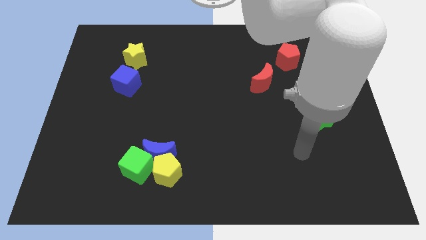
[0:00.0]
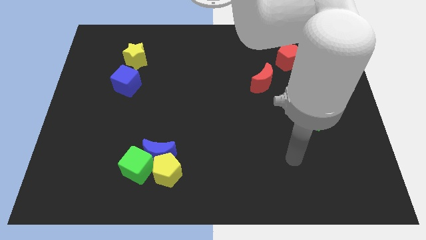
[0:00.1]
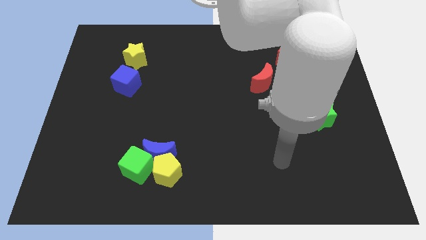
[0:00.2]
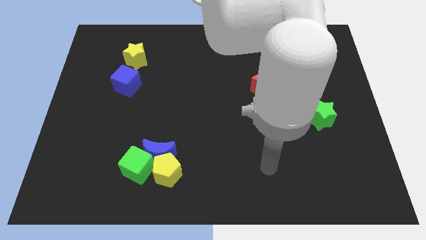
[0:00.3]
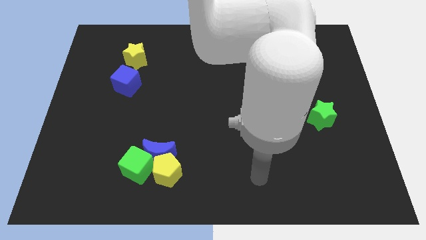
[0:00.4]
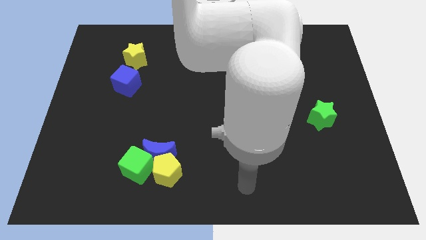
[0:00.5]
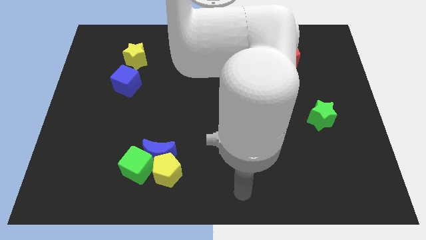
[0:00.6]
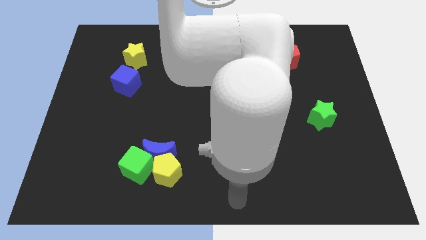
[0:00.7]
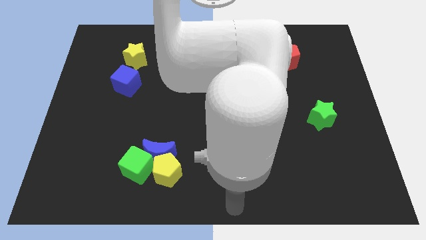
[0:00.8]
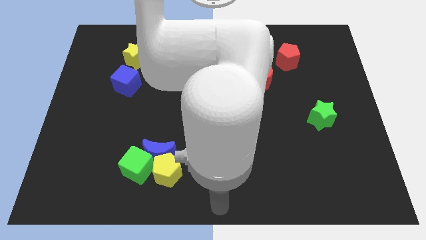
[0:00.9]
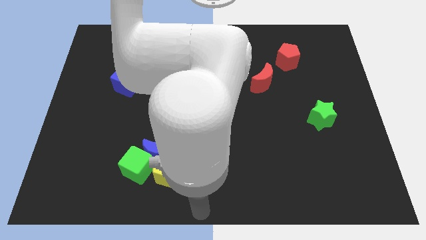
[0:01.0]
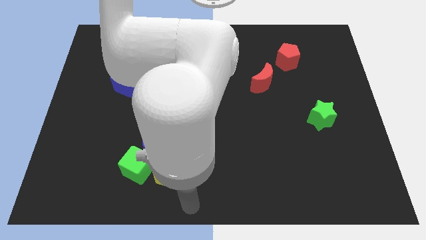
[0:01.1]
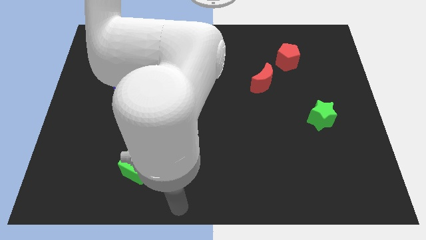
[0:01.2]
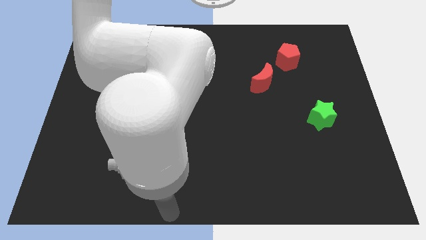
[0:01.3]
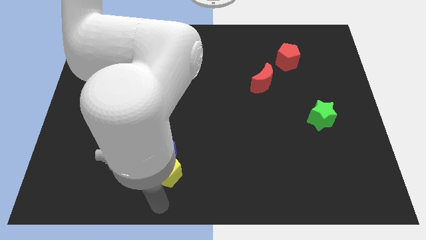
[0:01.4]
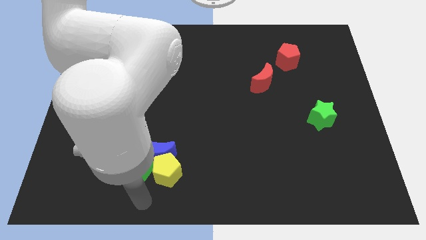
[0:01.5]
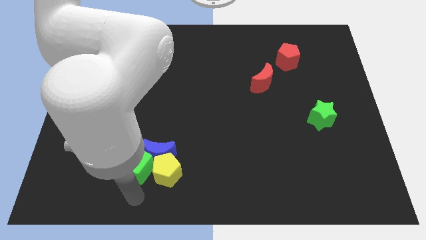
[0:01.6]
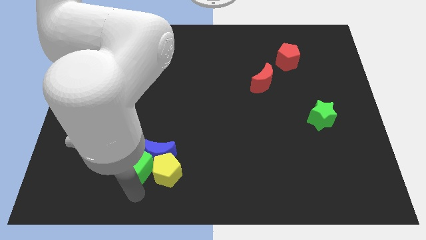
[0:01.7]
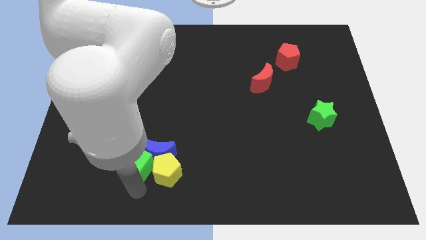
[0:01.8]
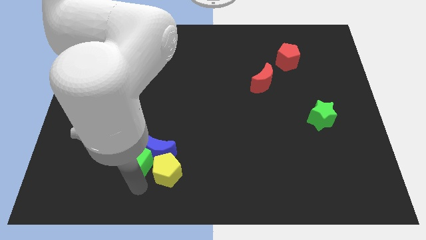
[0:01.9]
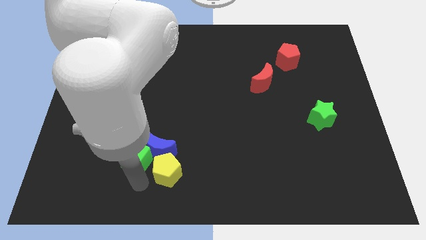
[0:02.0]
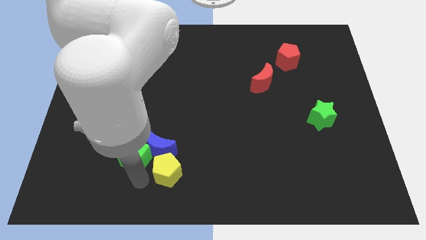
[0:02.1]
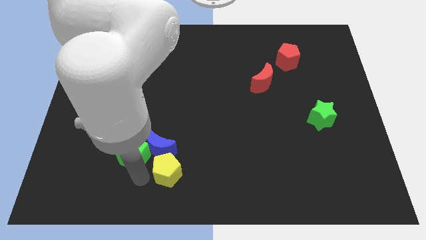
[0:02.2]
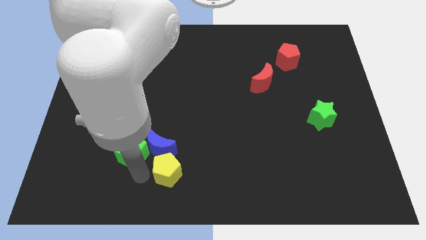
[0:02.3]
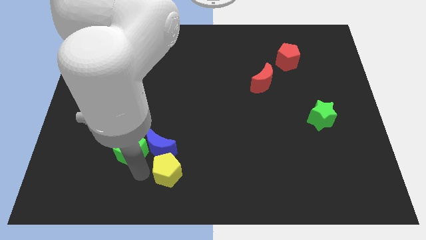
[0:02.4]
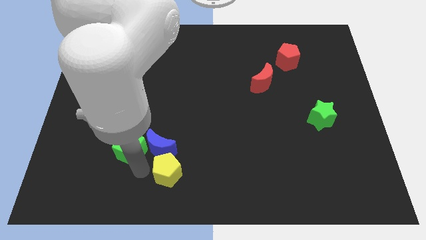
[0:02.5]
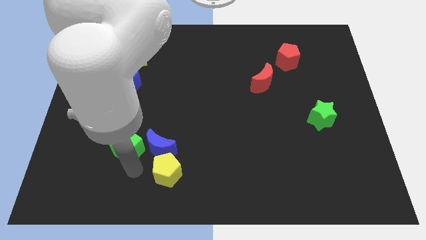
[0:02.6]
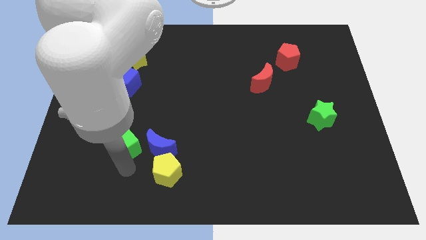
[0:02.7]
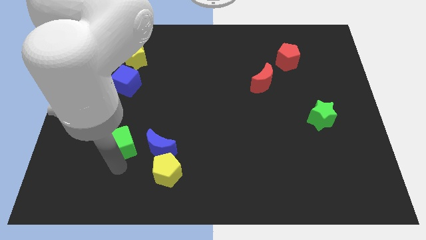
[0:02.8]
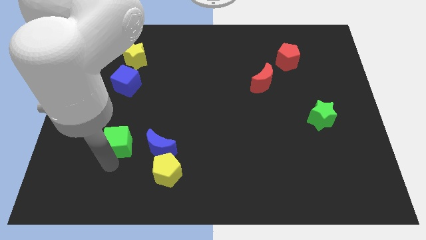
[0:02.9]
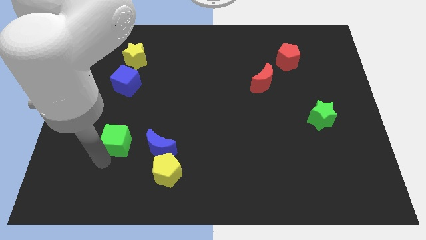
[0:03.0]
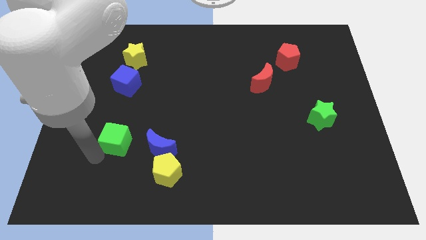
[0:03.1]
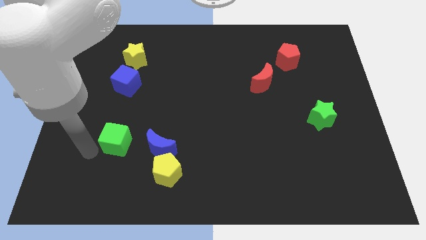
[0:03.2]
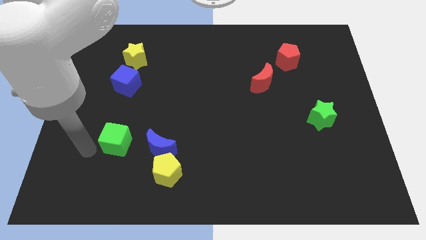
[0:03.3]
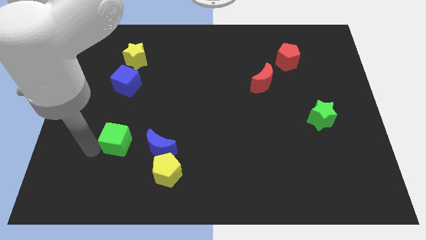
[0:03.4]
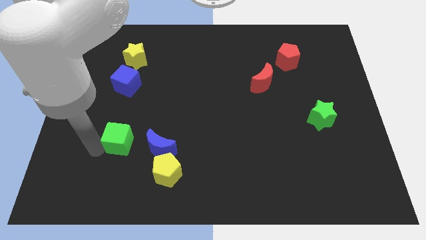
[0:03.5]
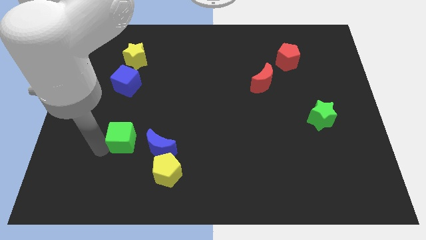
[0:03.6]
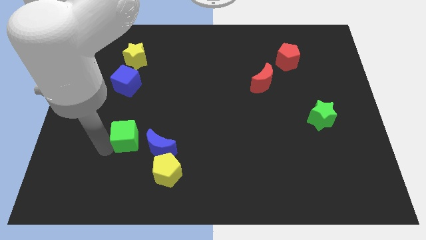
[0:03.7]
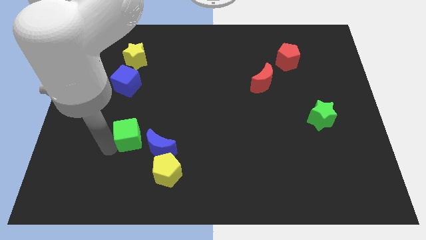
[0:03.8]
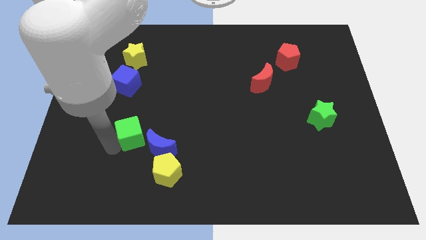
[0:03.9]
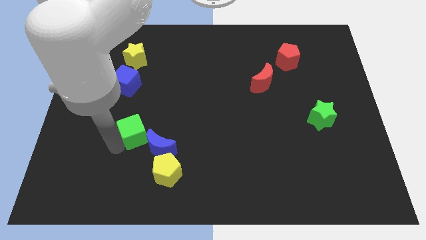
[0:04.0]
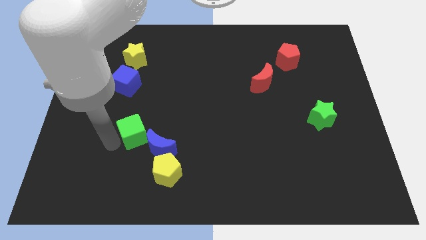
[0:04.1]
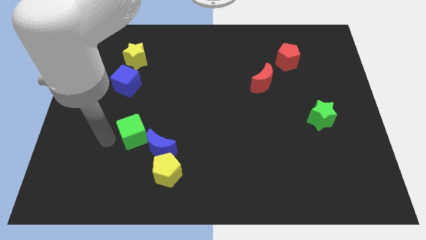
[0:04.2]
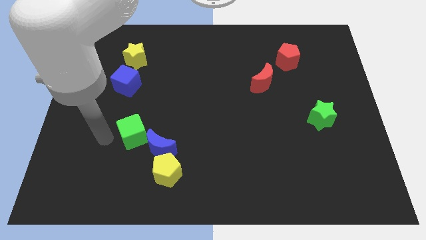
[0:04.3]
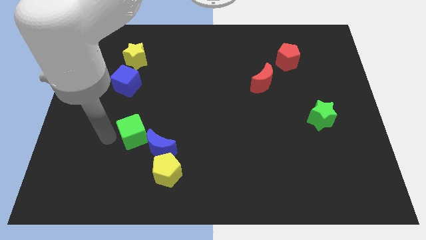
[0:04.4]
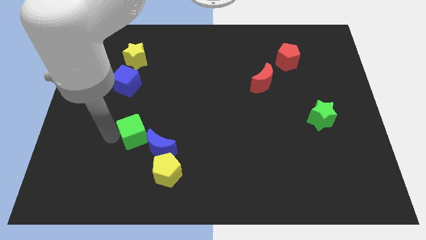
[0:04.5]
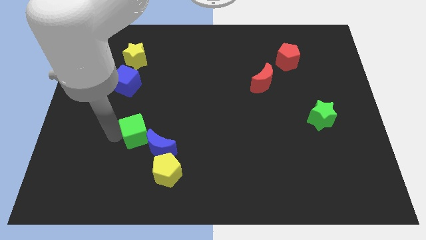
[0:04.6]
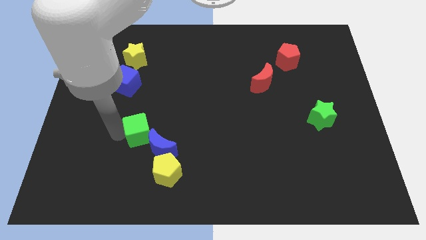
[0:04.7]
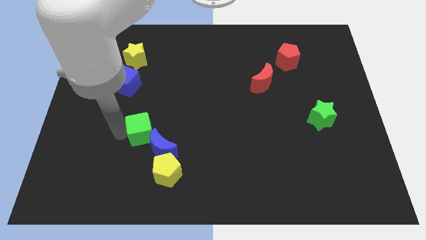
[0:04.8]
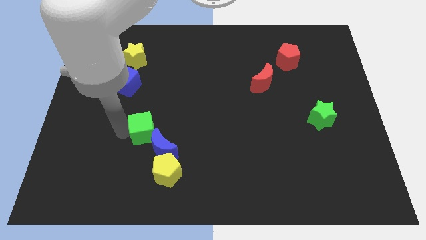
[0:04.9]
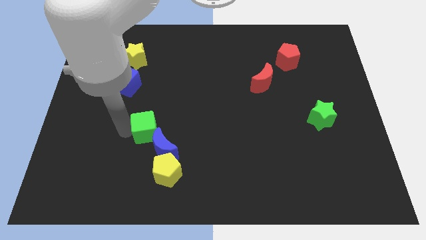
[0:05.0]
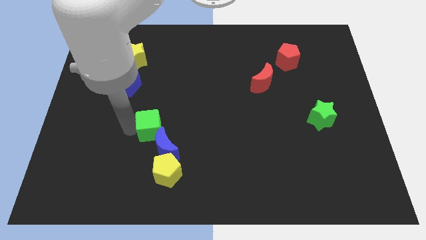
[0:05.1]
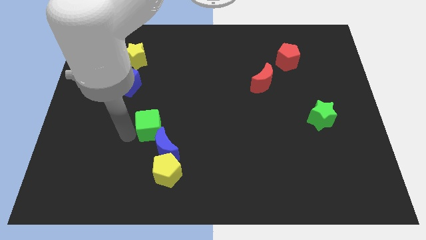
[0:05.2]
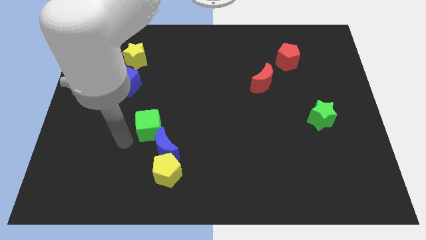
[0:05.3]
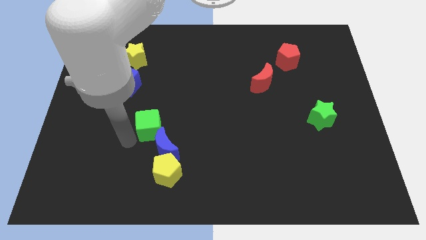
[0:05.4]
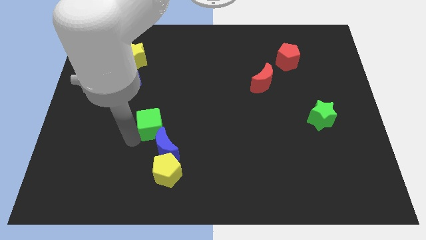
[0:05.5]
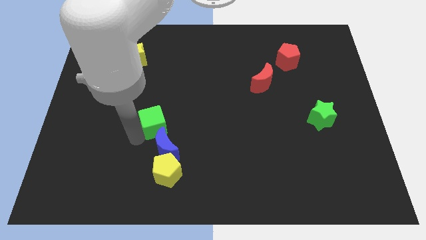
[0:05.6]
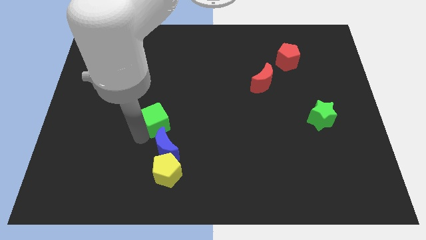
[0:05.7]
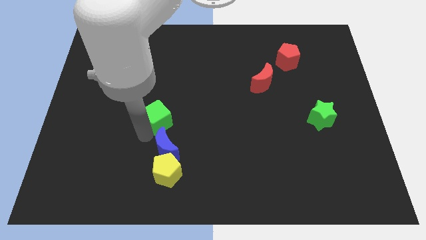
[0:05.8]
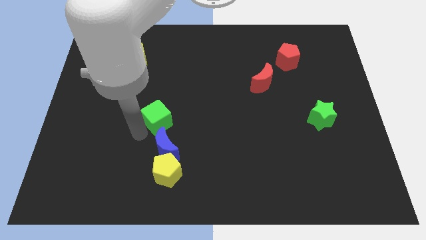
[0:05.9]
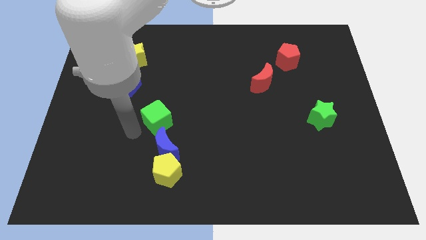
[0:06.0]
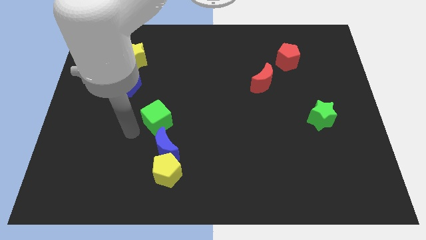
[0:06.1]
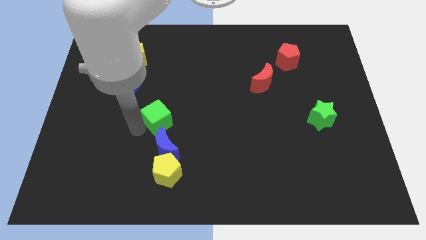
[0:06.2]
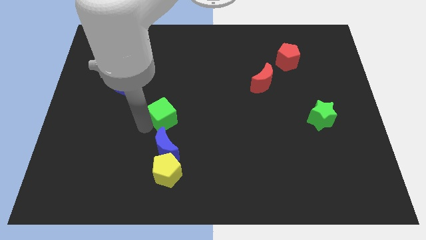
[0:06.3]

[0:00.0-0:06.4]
slide the green cube to the middle of the board
